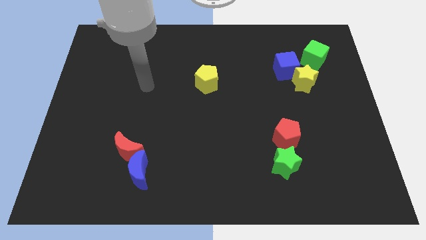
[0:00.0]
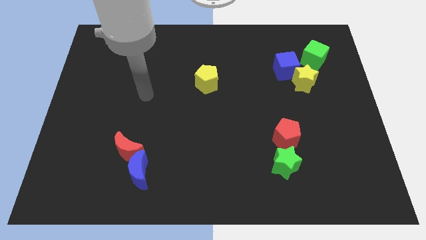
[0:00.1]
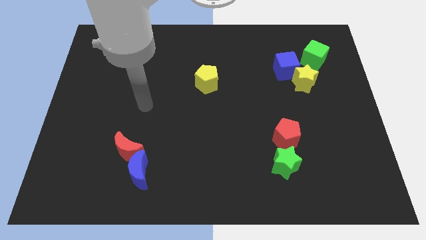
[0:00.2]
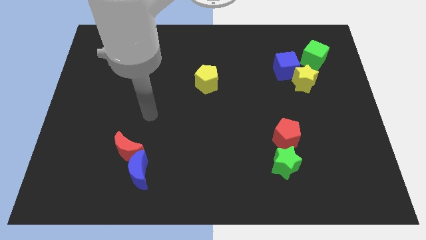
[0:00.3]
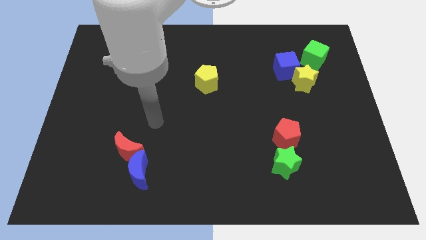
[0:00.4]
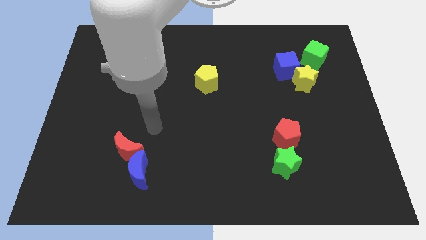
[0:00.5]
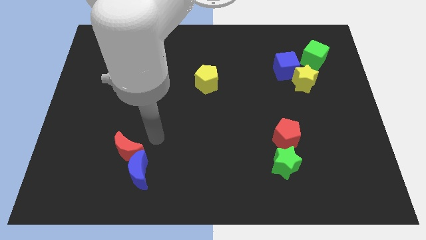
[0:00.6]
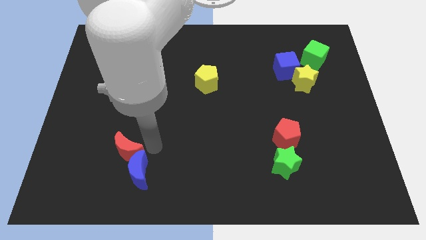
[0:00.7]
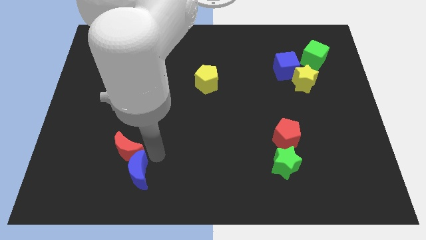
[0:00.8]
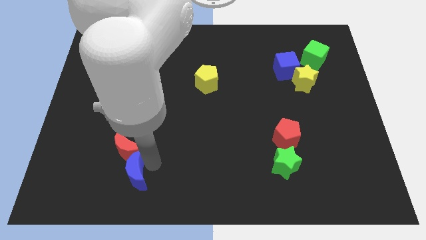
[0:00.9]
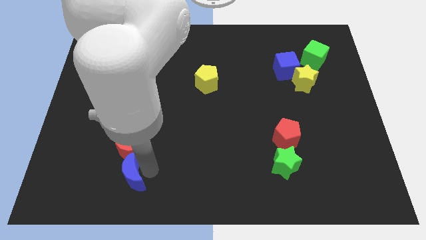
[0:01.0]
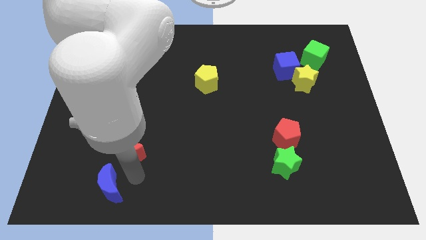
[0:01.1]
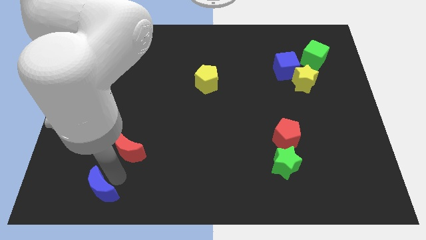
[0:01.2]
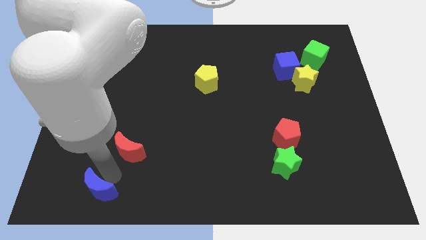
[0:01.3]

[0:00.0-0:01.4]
move the red moon away from the blue moon

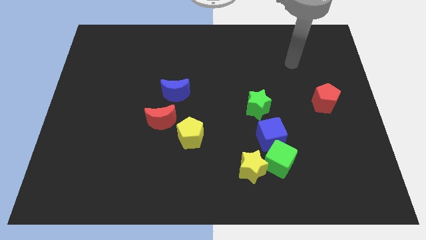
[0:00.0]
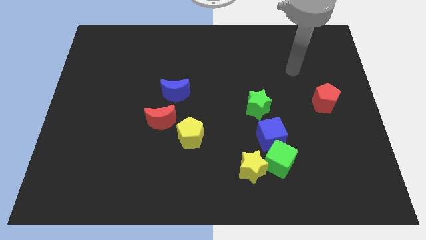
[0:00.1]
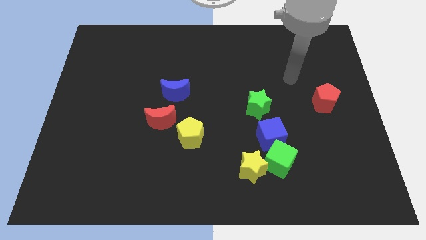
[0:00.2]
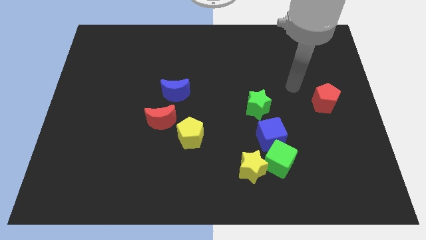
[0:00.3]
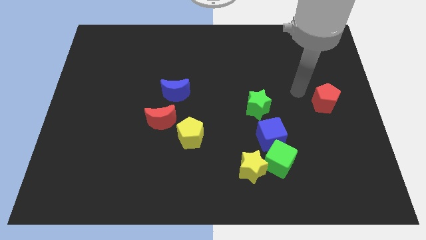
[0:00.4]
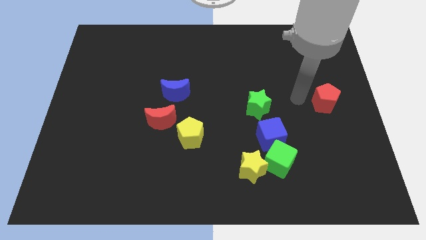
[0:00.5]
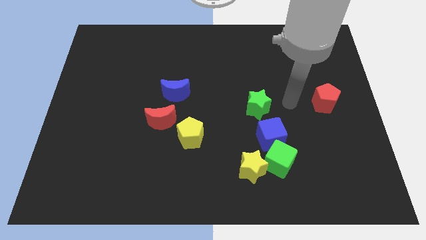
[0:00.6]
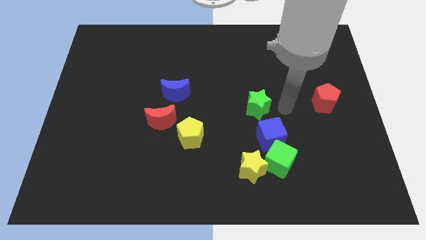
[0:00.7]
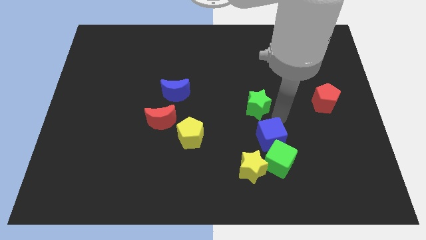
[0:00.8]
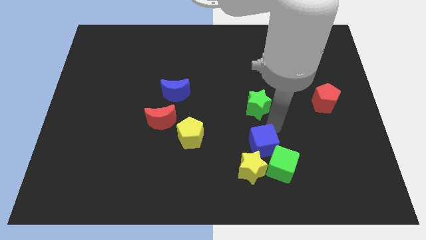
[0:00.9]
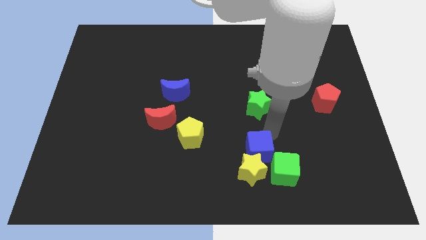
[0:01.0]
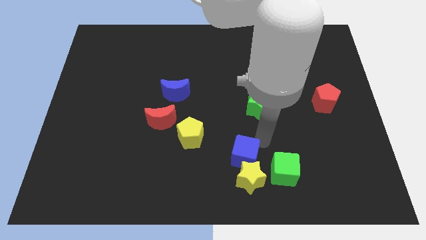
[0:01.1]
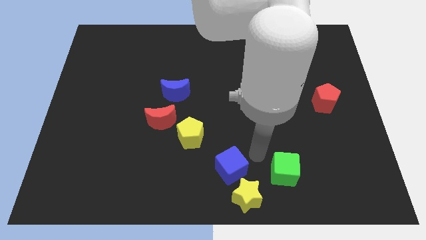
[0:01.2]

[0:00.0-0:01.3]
move the green cube away from the yellow star and blue cube

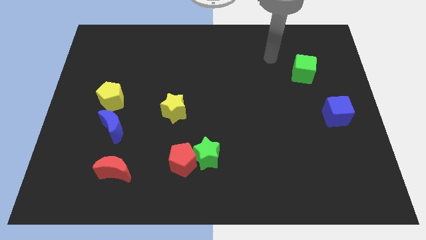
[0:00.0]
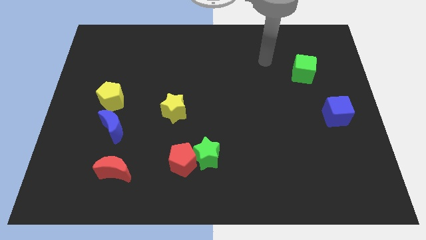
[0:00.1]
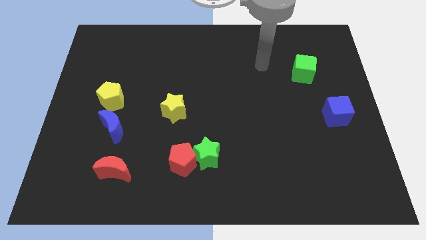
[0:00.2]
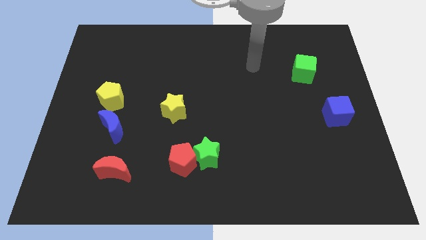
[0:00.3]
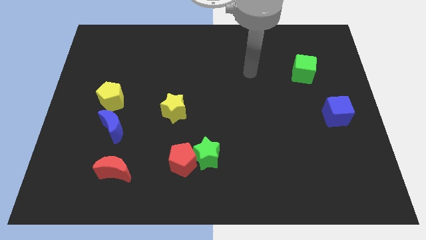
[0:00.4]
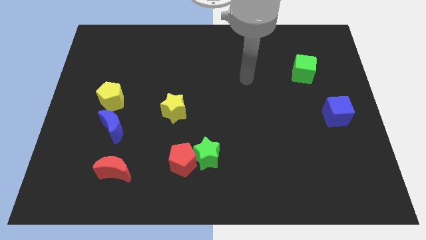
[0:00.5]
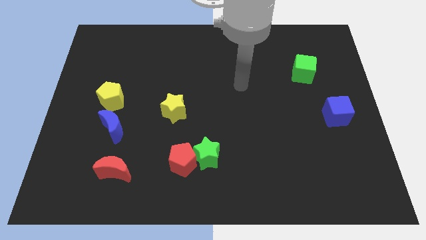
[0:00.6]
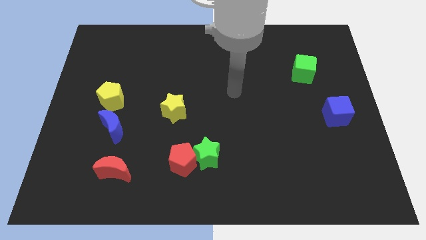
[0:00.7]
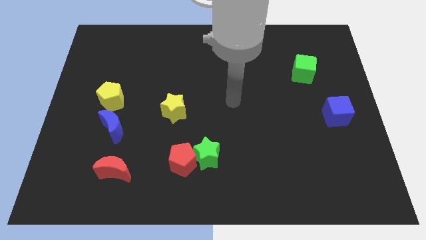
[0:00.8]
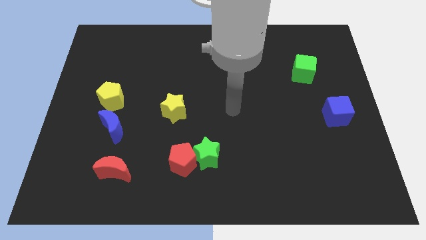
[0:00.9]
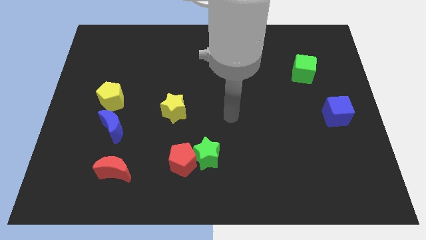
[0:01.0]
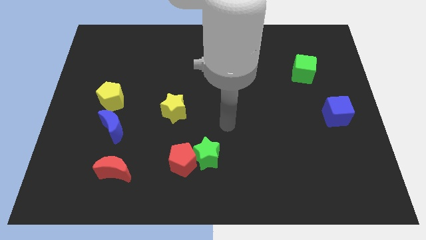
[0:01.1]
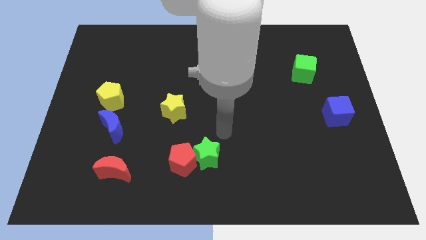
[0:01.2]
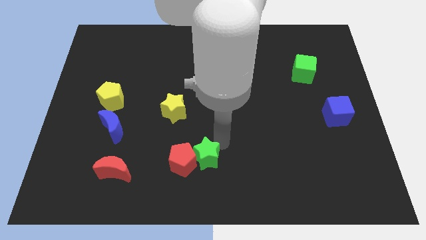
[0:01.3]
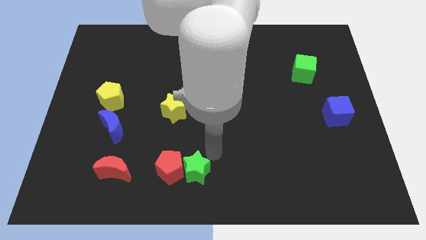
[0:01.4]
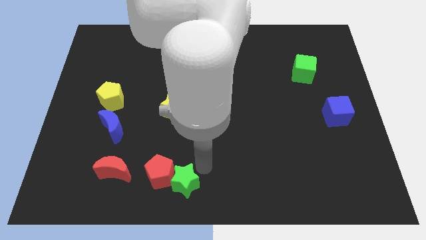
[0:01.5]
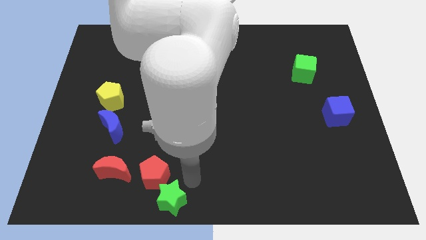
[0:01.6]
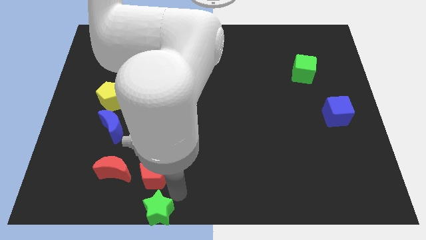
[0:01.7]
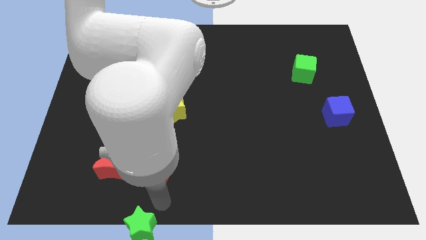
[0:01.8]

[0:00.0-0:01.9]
move the red pentagon away from the green star

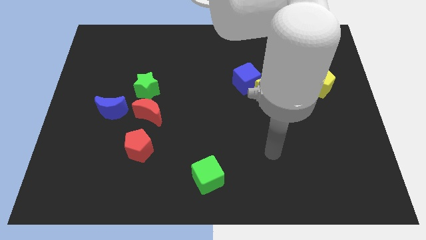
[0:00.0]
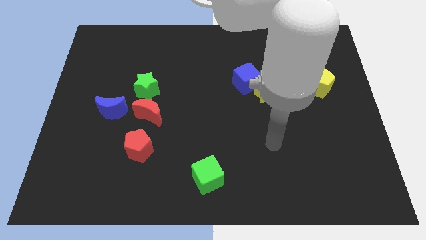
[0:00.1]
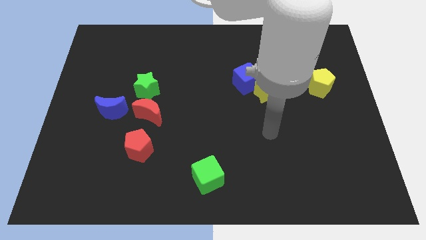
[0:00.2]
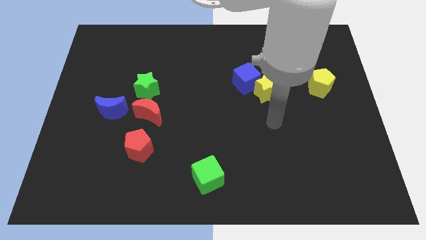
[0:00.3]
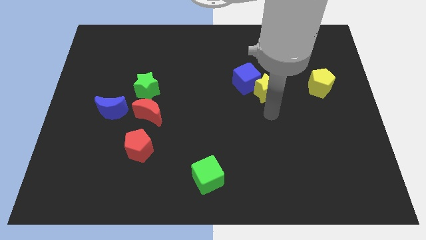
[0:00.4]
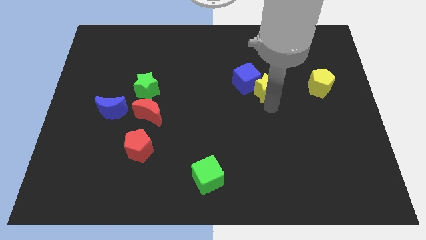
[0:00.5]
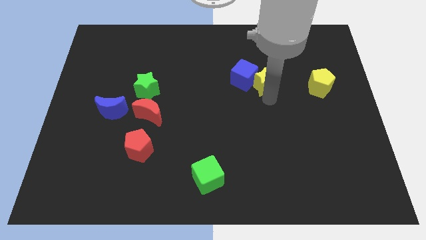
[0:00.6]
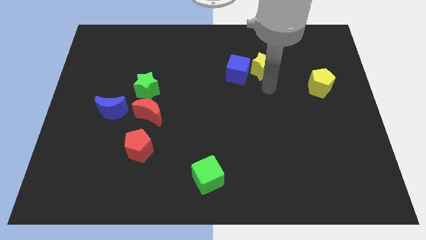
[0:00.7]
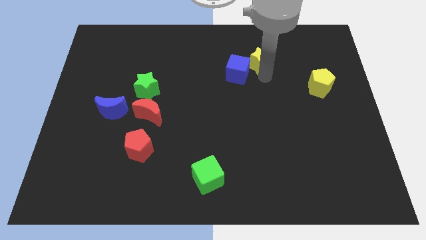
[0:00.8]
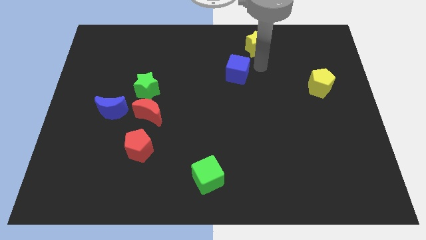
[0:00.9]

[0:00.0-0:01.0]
pull the blue cube apart from the yellow star

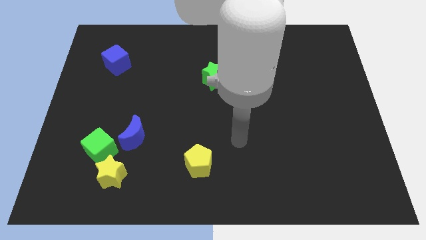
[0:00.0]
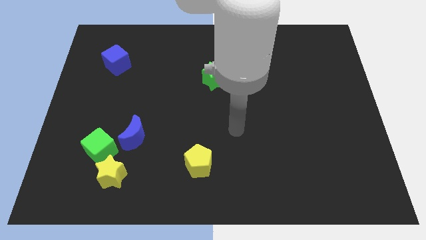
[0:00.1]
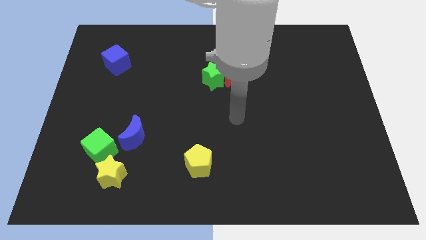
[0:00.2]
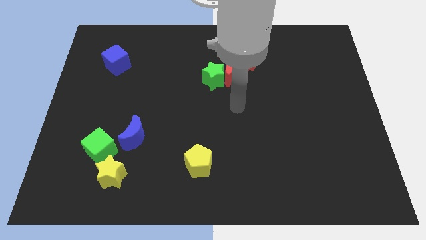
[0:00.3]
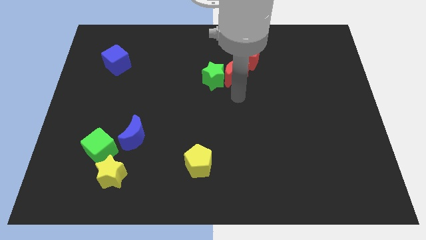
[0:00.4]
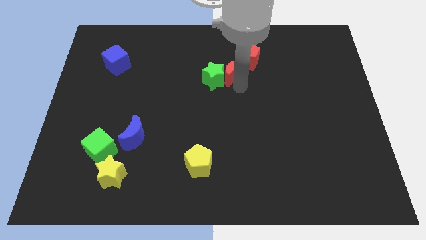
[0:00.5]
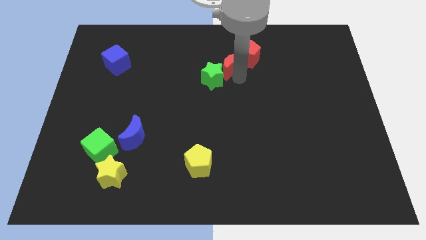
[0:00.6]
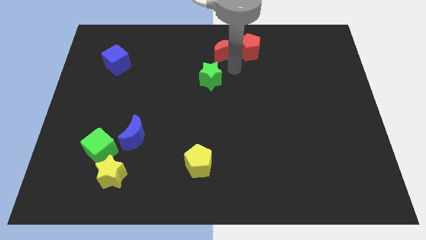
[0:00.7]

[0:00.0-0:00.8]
separate the green star from the red moon

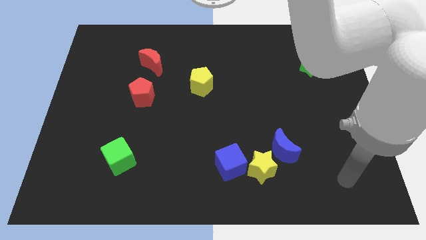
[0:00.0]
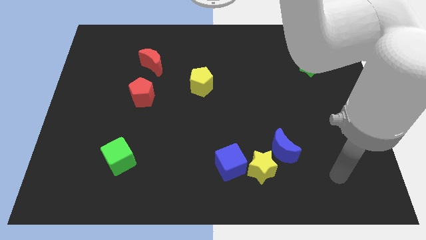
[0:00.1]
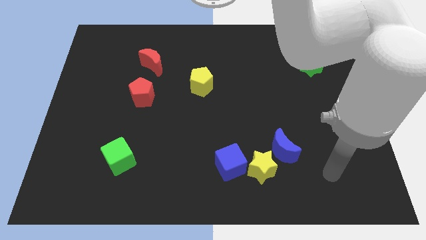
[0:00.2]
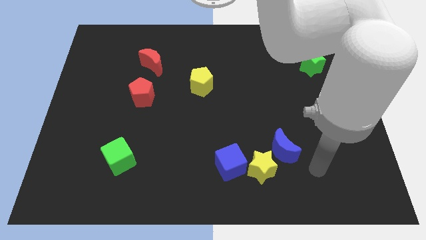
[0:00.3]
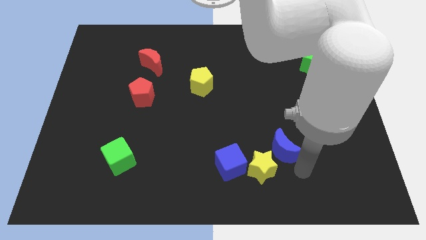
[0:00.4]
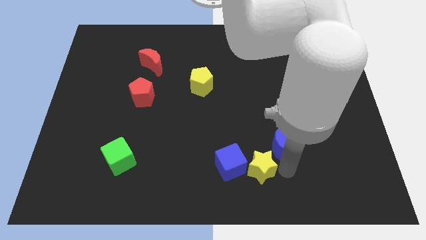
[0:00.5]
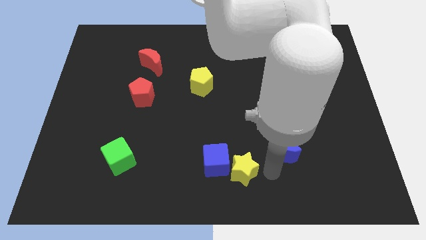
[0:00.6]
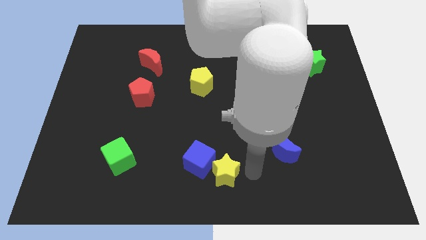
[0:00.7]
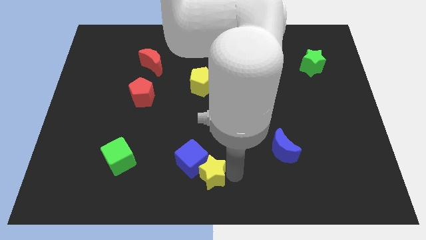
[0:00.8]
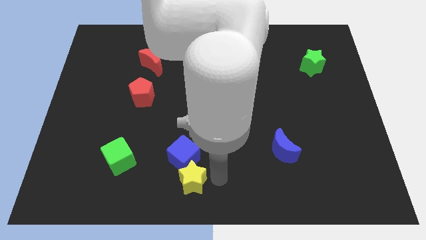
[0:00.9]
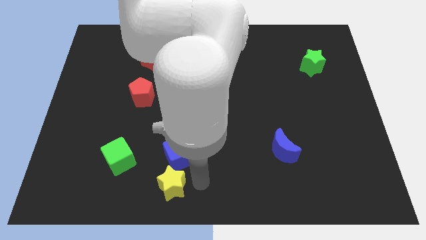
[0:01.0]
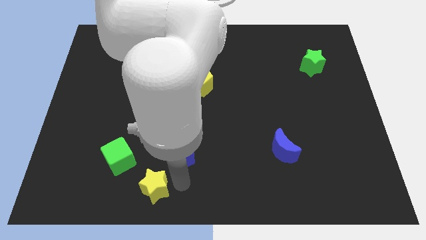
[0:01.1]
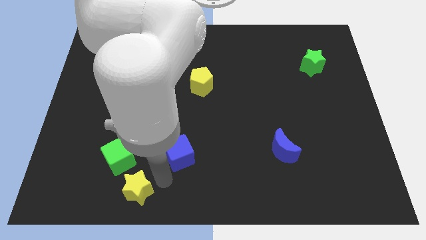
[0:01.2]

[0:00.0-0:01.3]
move the blue cube away from the yellow star

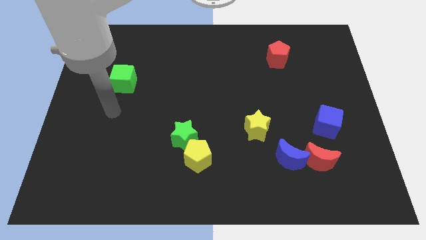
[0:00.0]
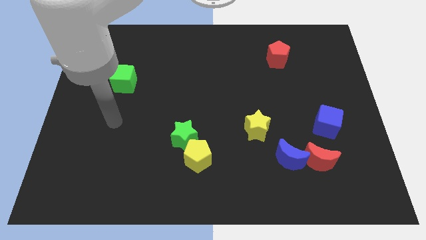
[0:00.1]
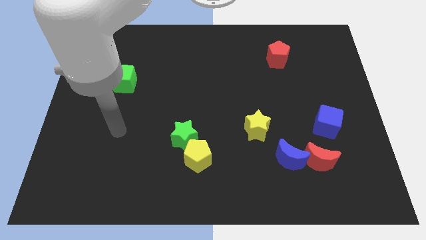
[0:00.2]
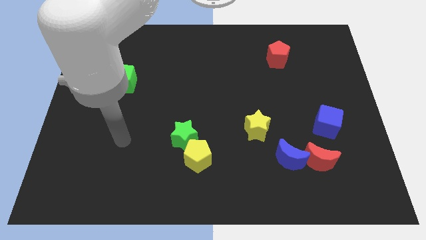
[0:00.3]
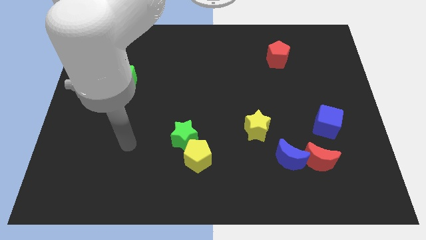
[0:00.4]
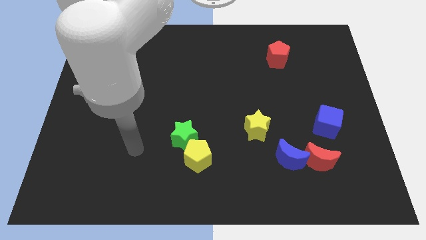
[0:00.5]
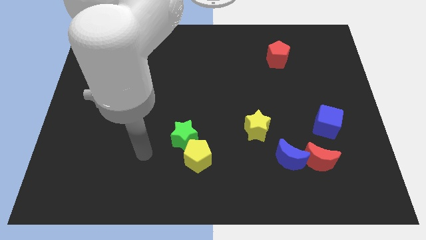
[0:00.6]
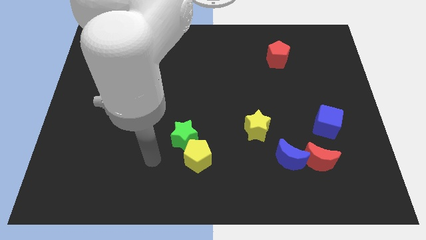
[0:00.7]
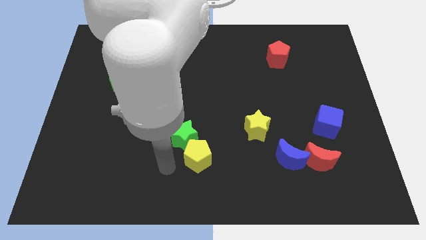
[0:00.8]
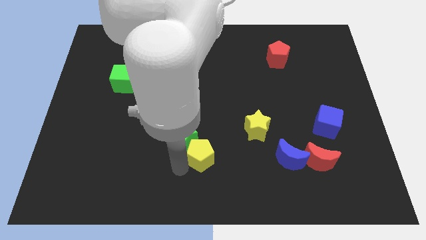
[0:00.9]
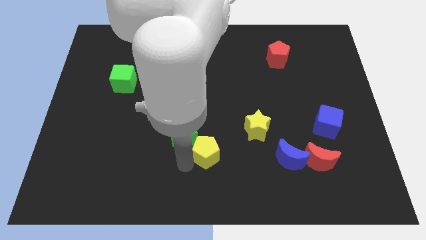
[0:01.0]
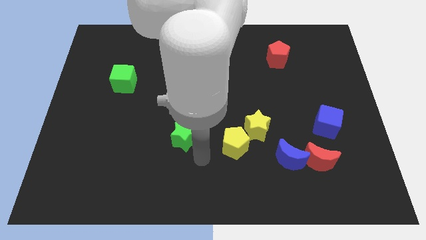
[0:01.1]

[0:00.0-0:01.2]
pull the green star apart from the yellow pentagon

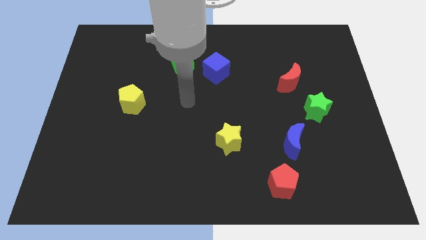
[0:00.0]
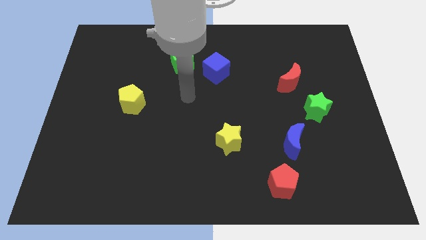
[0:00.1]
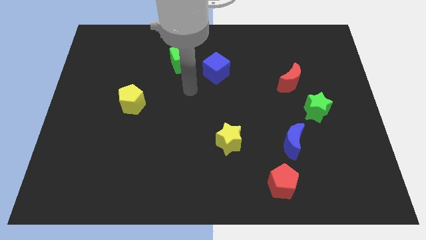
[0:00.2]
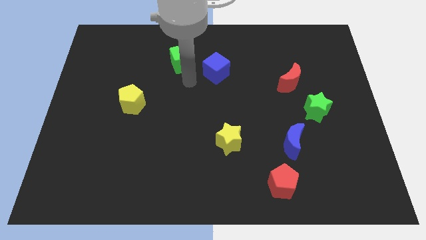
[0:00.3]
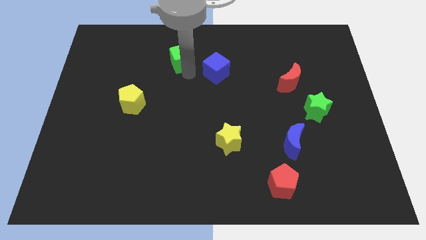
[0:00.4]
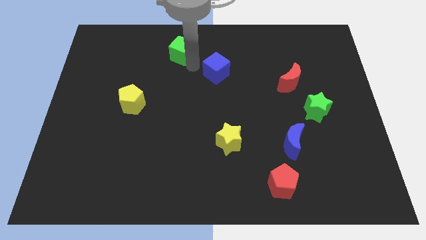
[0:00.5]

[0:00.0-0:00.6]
pull the blue cube apart from the green cube
